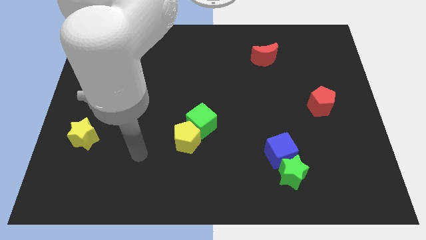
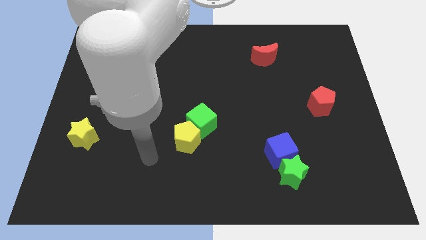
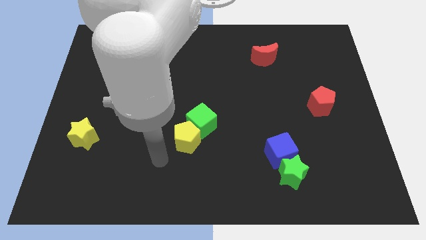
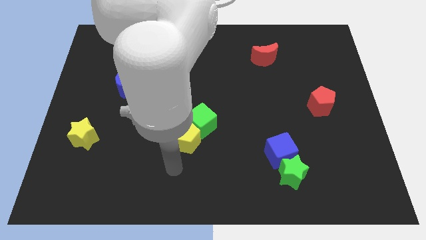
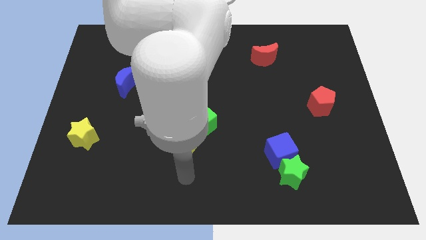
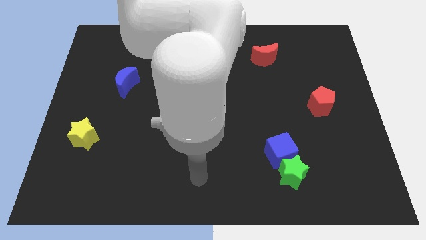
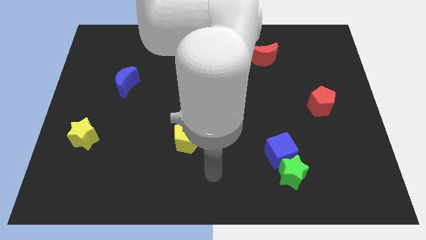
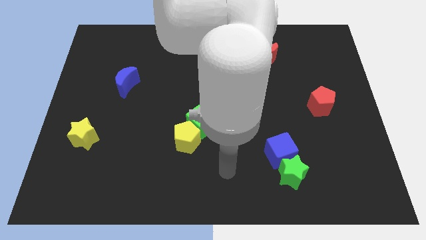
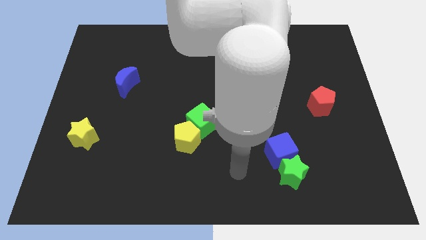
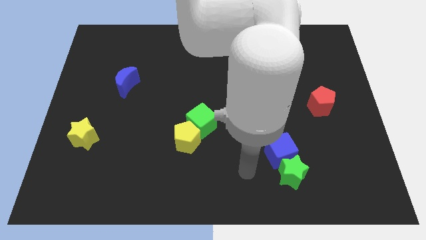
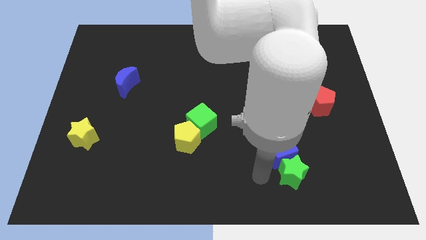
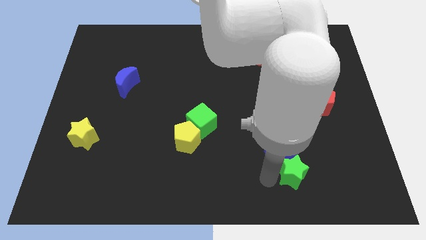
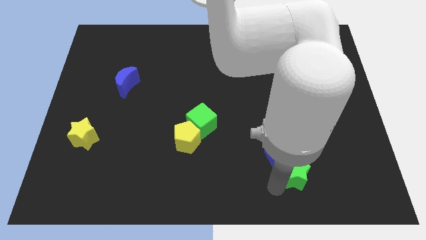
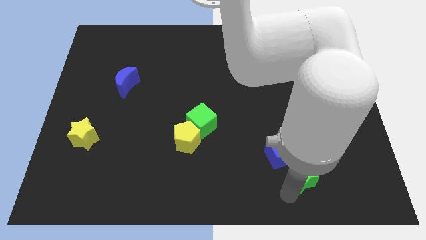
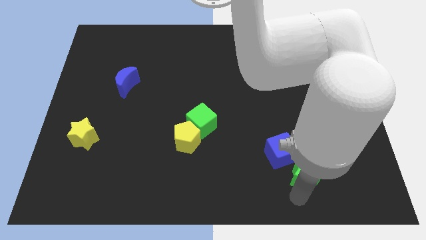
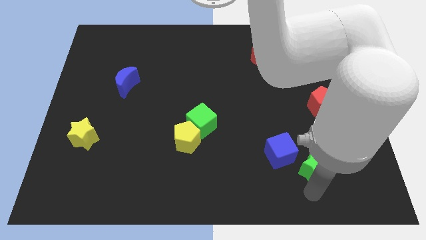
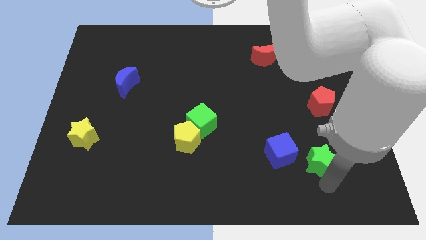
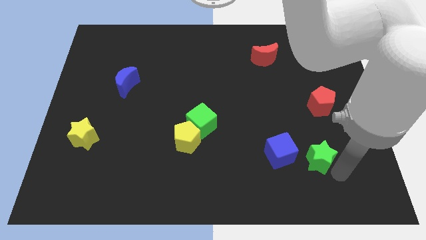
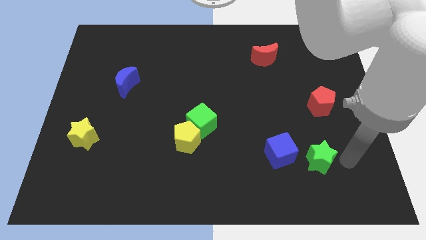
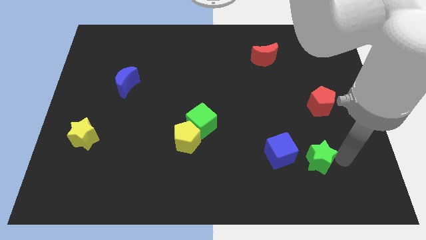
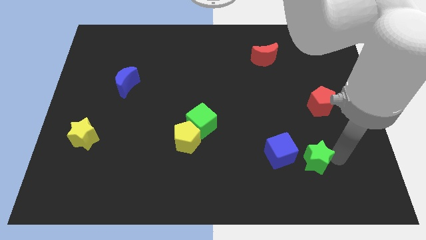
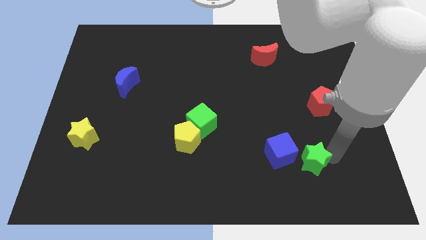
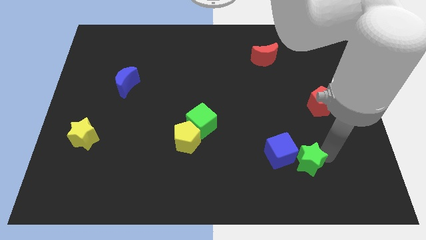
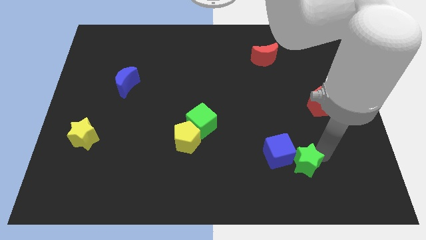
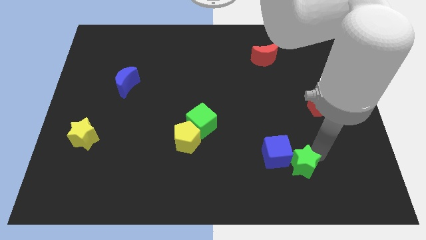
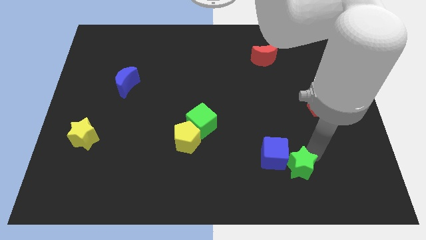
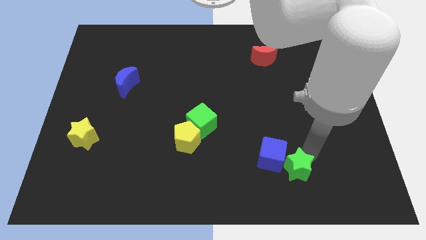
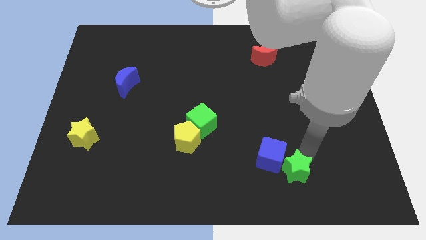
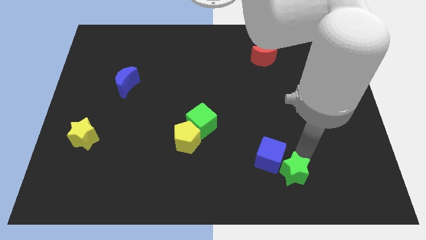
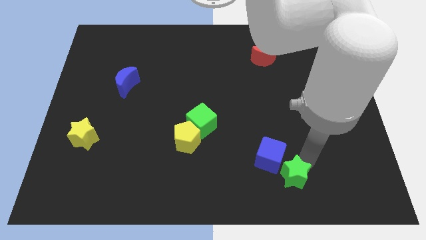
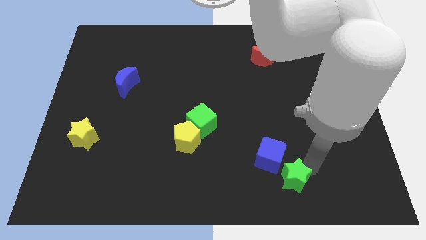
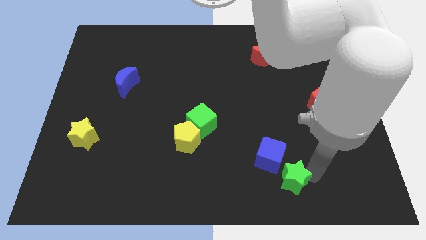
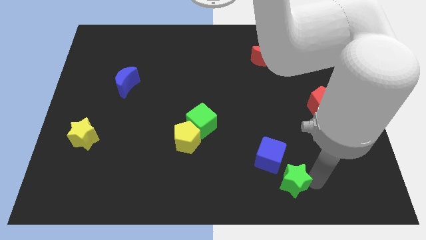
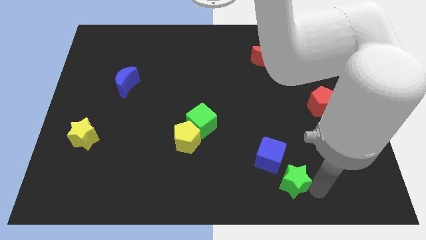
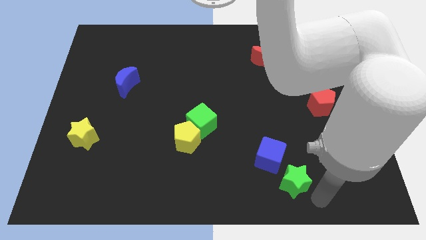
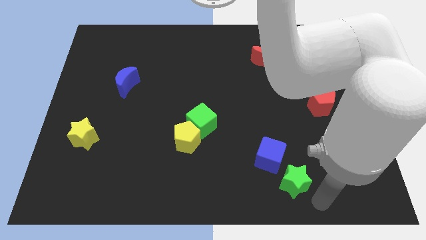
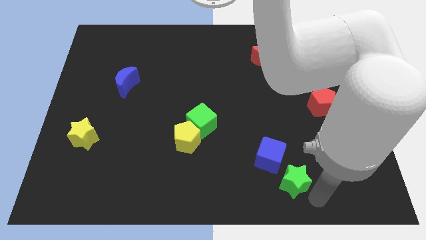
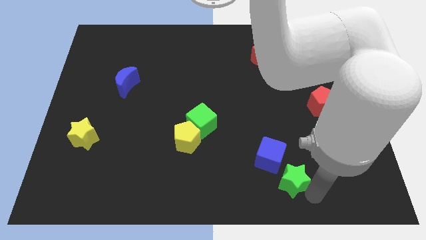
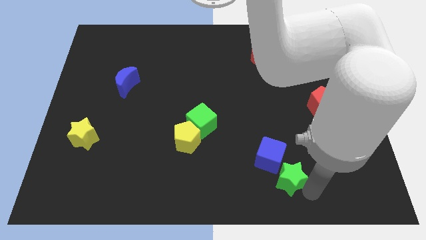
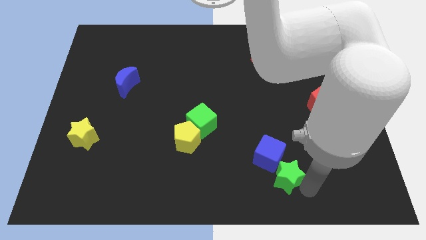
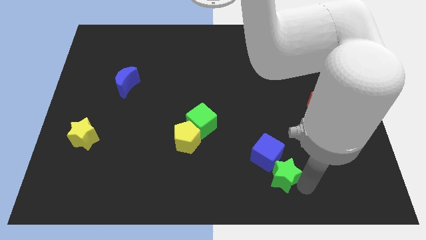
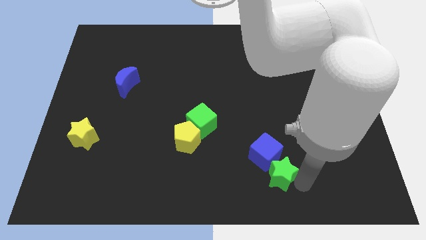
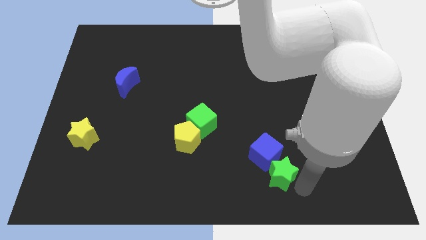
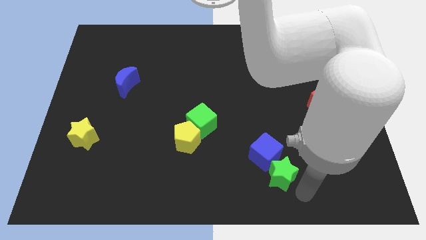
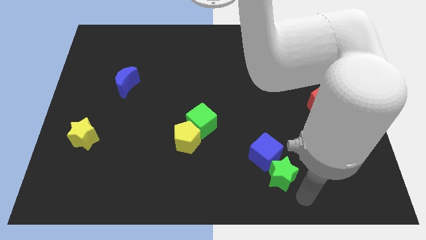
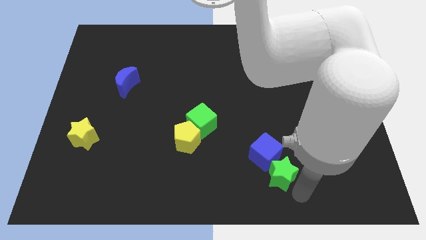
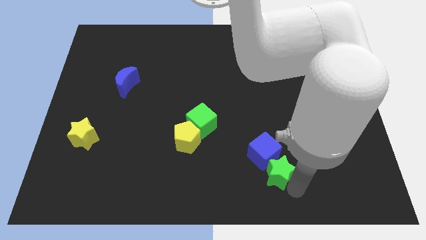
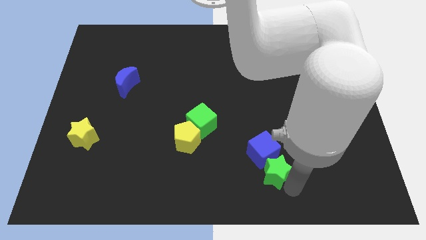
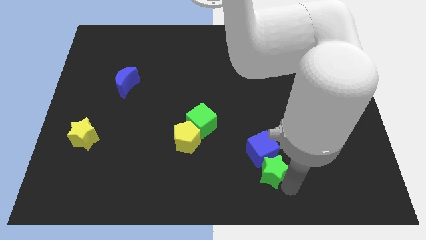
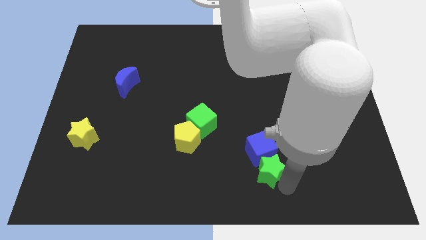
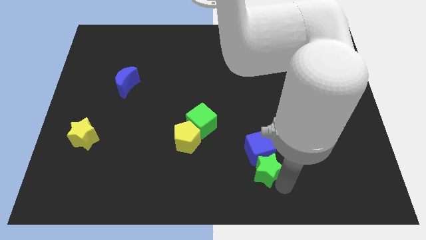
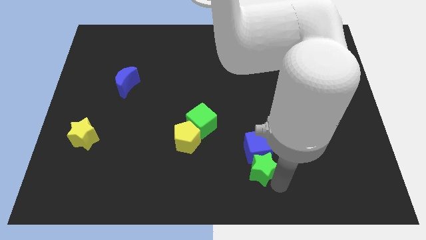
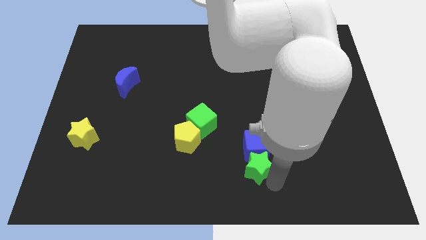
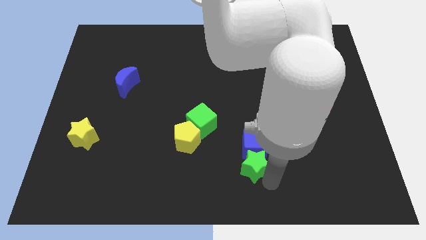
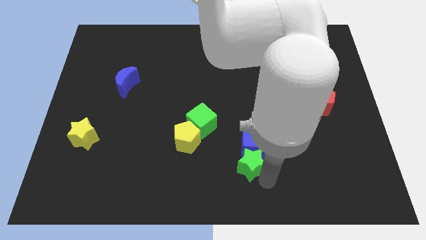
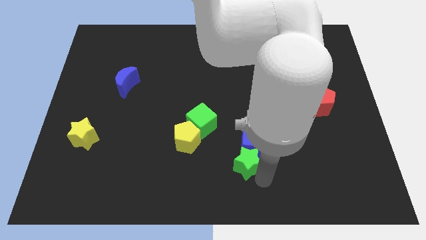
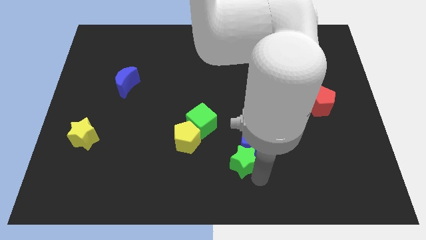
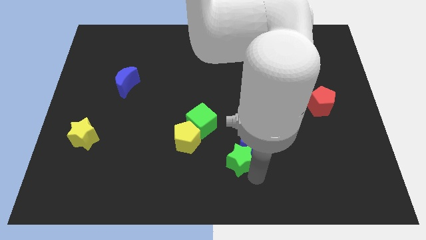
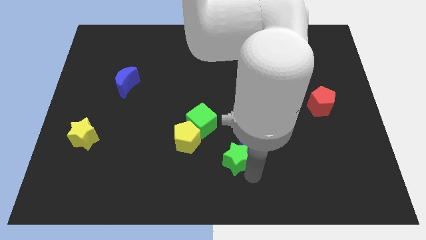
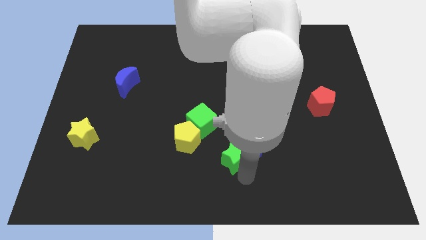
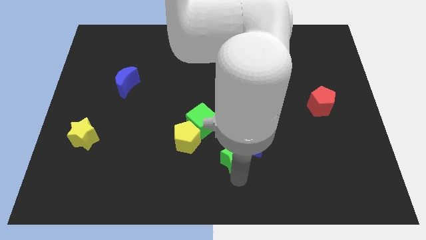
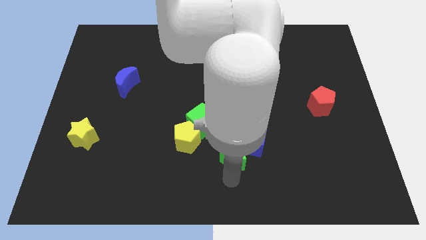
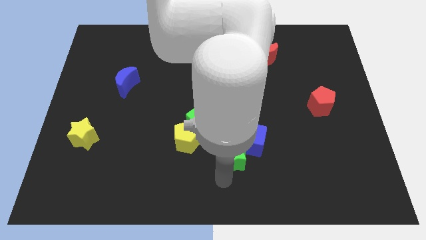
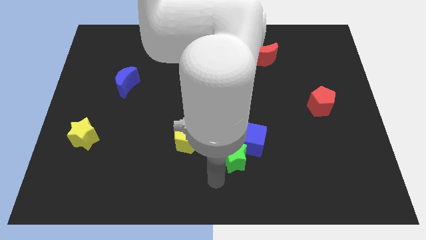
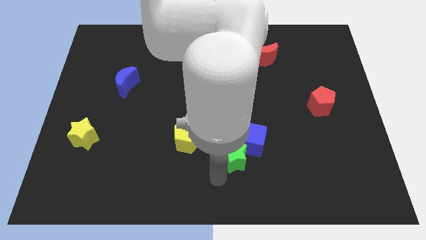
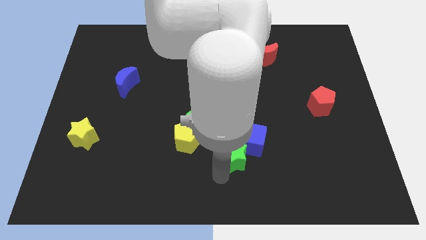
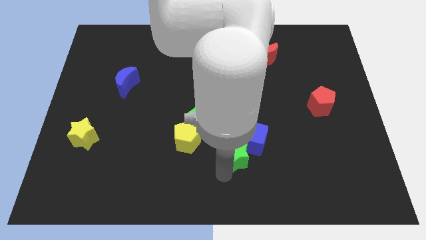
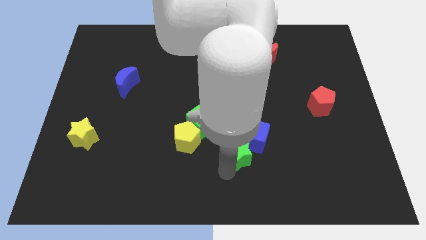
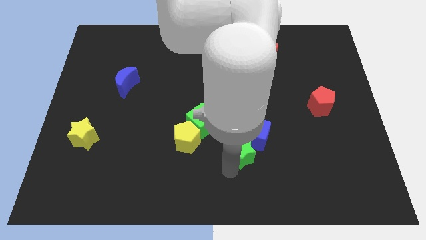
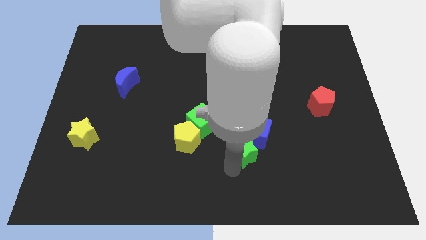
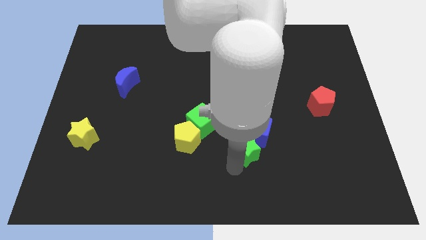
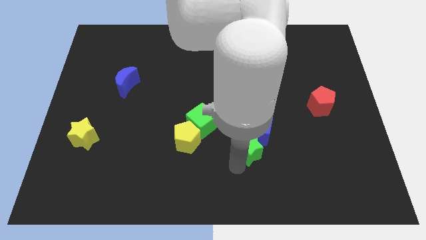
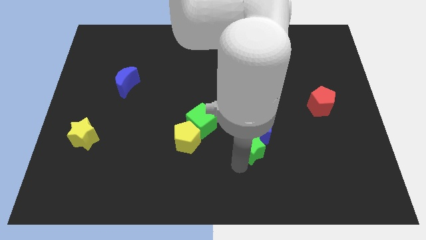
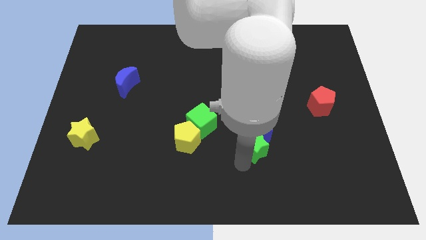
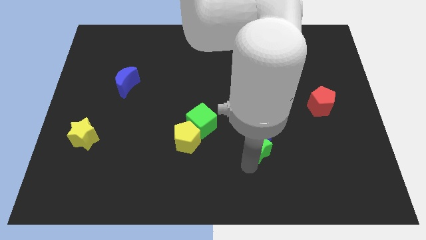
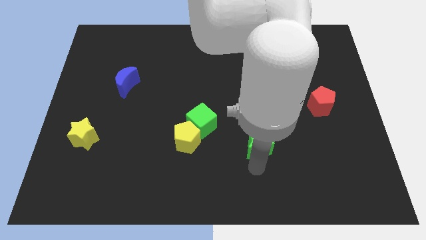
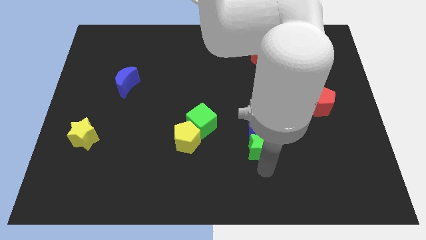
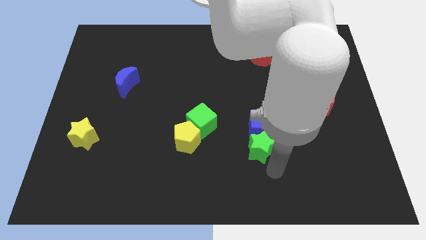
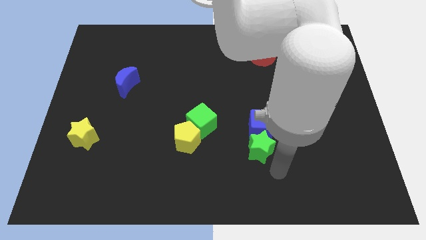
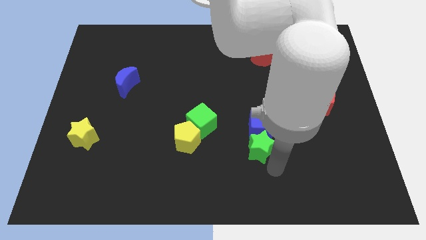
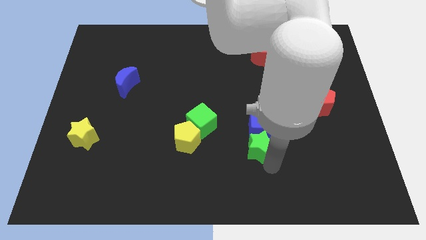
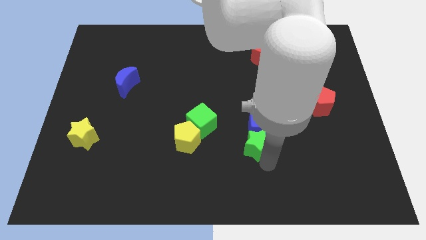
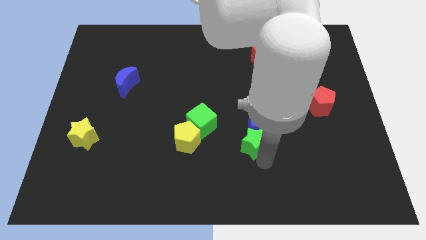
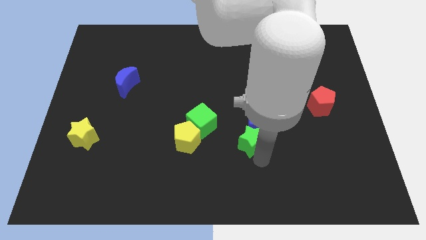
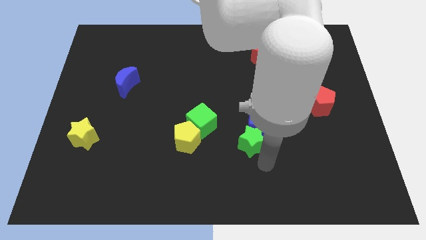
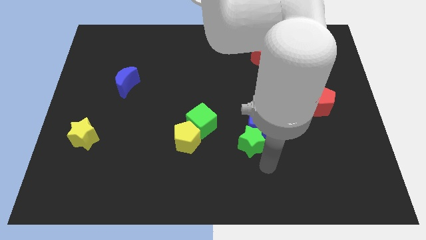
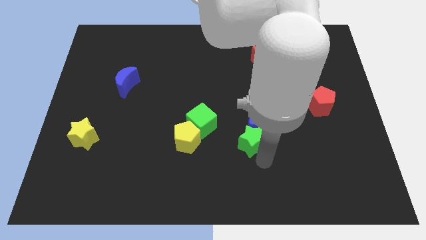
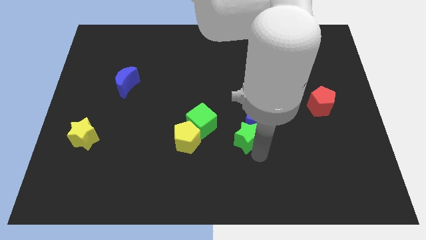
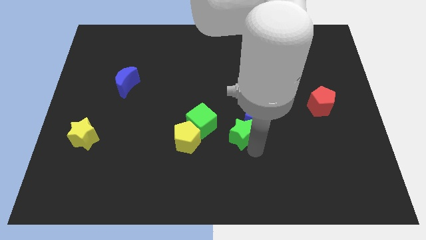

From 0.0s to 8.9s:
slide the green star to the middle
